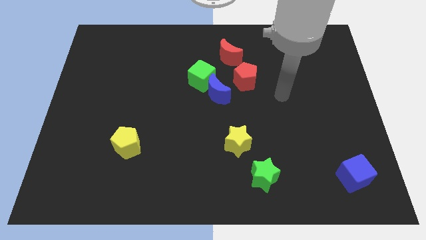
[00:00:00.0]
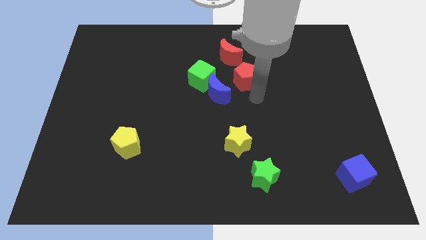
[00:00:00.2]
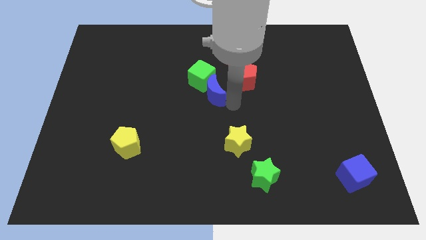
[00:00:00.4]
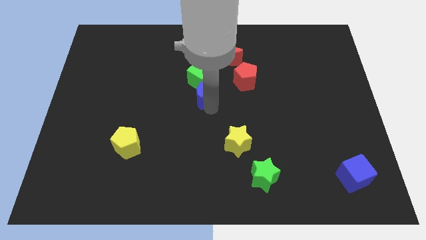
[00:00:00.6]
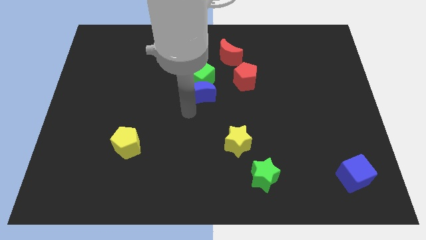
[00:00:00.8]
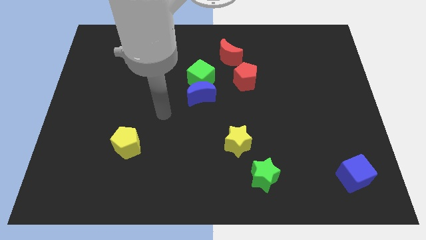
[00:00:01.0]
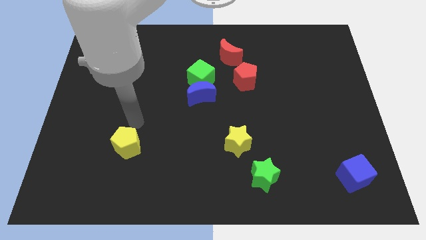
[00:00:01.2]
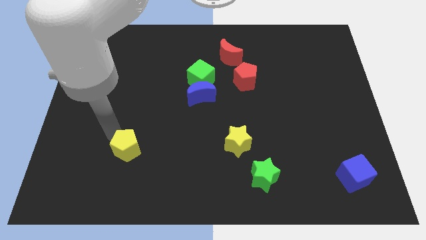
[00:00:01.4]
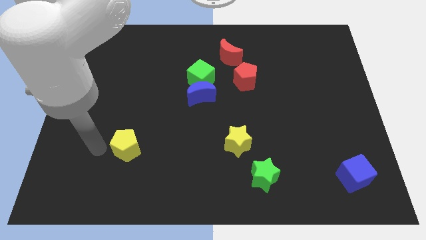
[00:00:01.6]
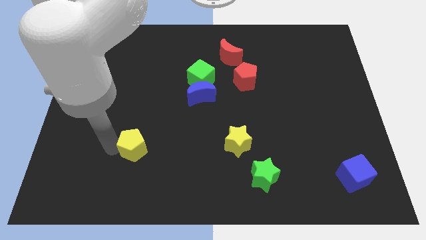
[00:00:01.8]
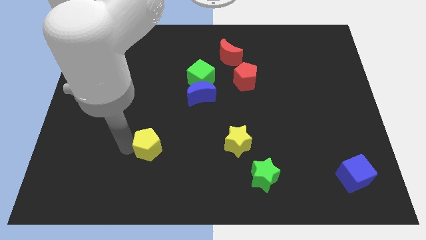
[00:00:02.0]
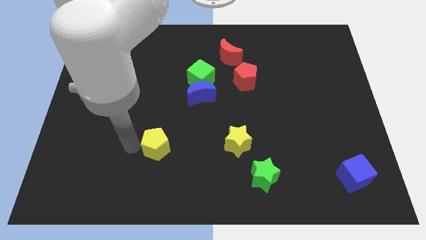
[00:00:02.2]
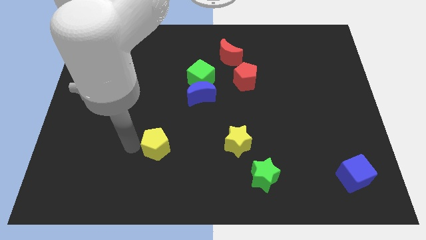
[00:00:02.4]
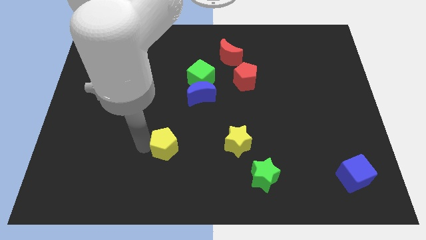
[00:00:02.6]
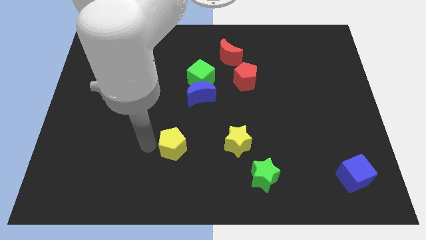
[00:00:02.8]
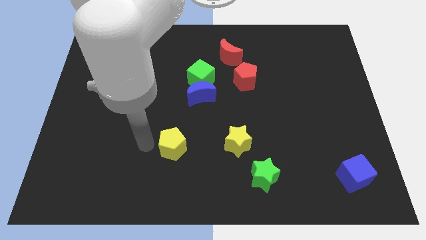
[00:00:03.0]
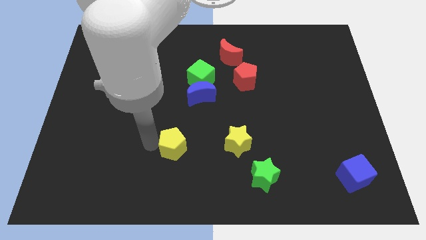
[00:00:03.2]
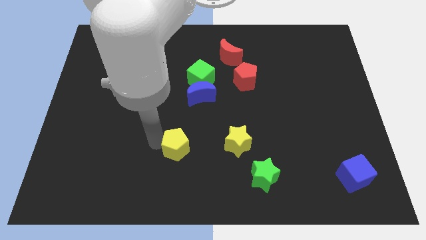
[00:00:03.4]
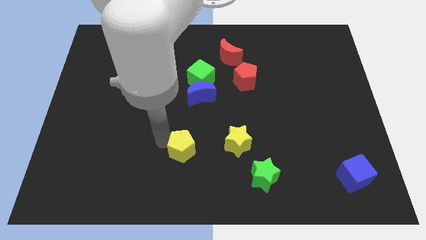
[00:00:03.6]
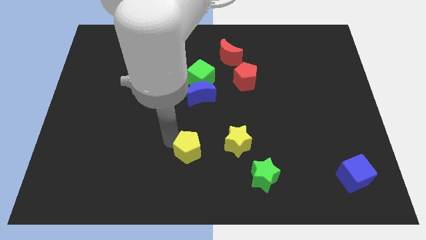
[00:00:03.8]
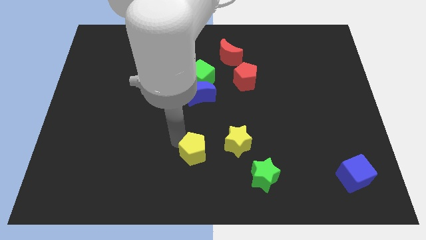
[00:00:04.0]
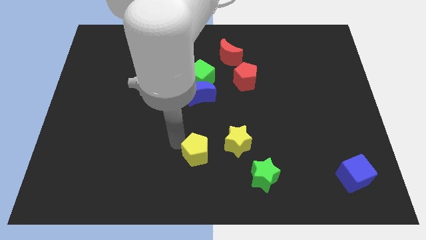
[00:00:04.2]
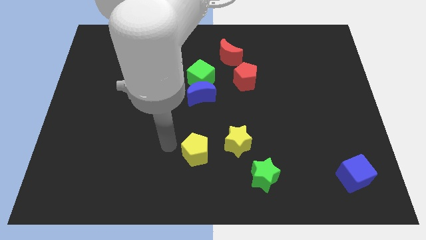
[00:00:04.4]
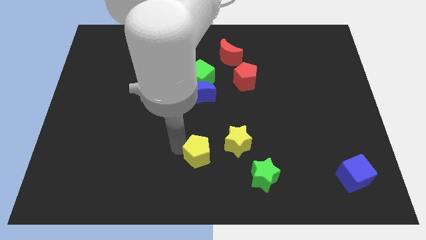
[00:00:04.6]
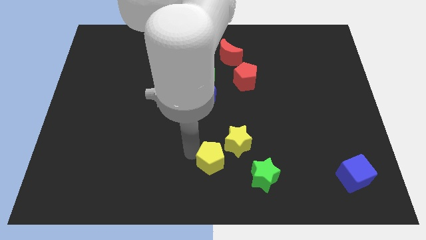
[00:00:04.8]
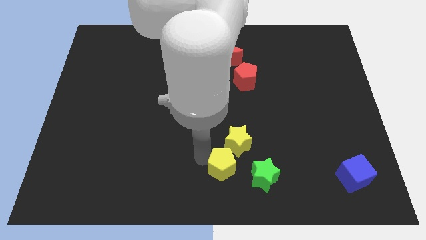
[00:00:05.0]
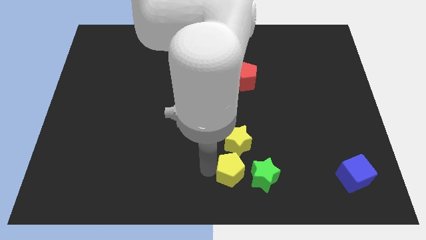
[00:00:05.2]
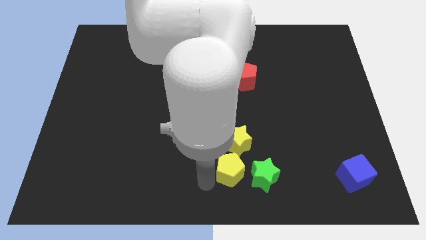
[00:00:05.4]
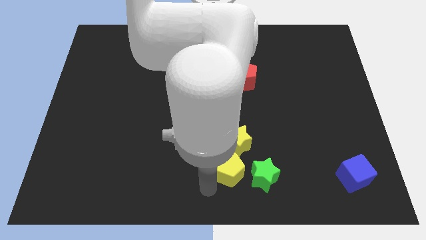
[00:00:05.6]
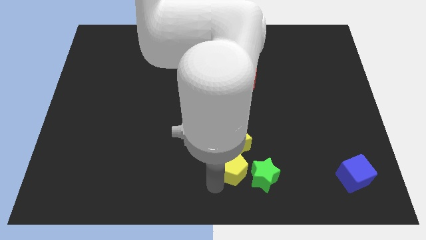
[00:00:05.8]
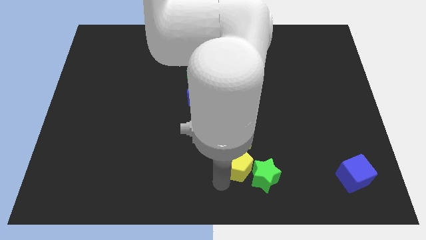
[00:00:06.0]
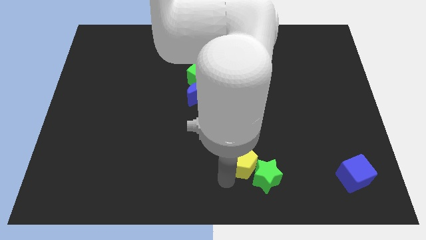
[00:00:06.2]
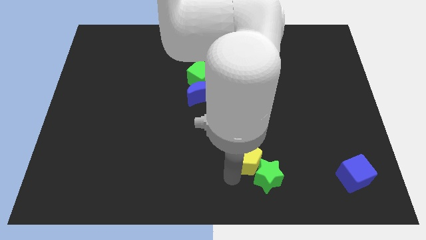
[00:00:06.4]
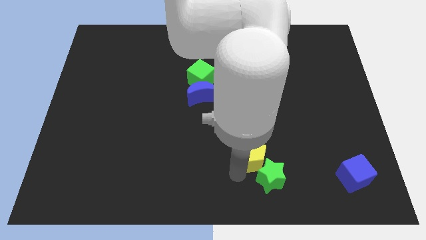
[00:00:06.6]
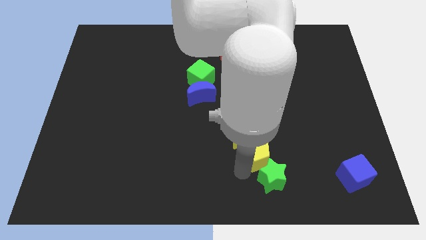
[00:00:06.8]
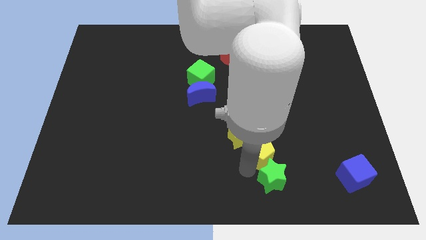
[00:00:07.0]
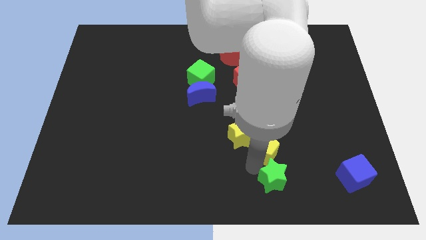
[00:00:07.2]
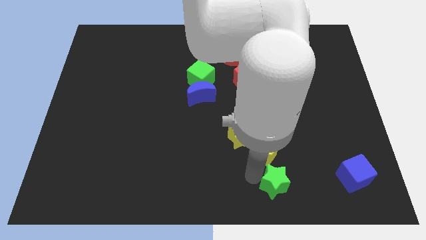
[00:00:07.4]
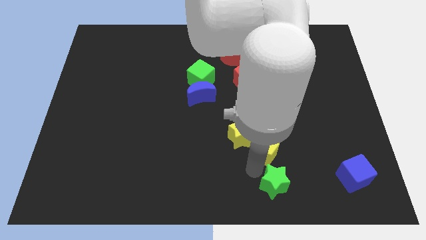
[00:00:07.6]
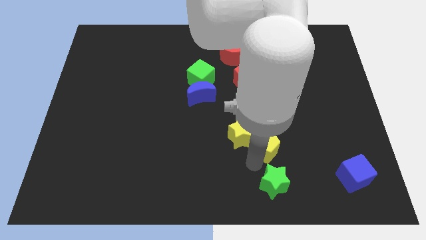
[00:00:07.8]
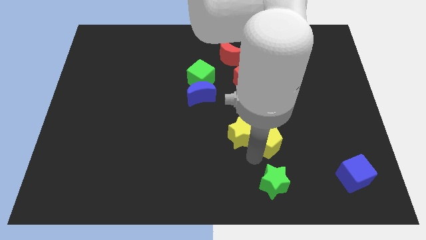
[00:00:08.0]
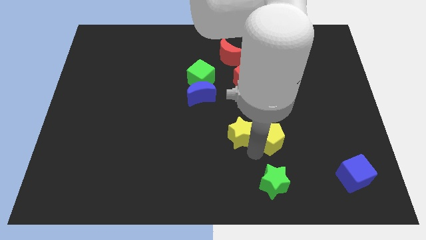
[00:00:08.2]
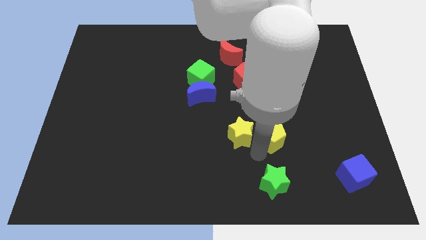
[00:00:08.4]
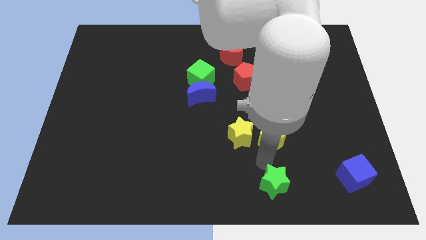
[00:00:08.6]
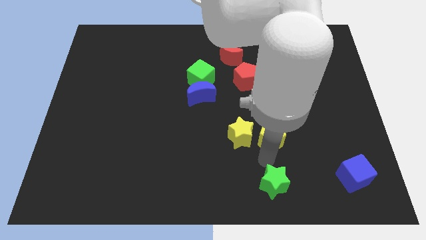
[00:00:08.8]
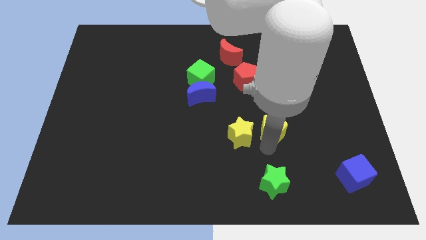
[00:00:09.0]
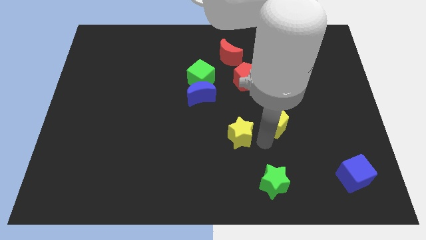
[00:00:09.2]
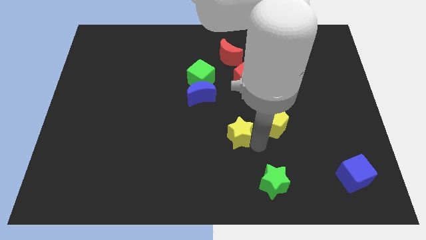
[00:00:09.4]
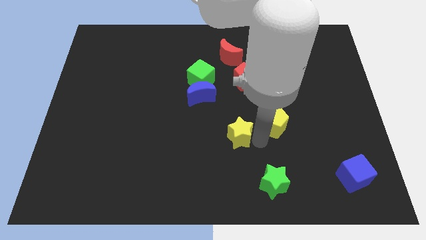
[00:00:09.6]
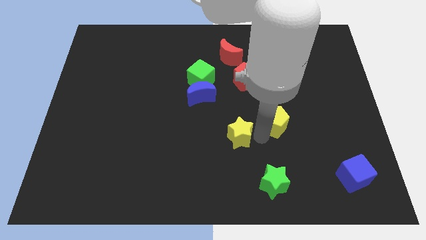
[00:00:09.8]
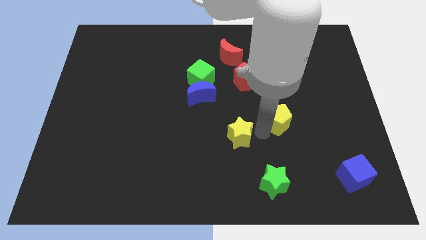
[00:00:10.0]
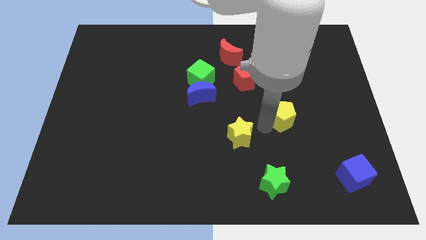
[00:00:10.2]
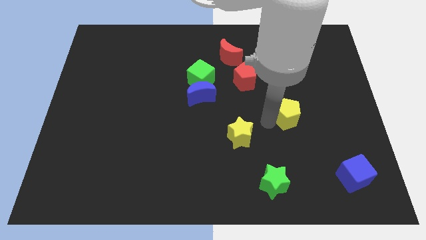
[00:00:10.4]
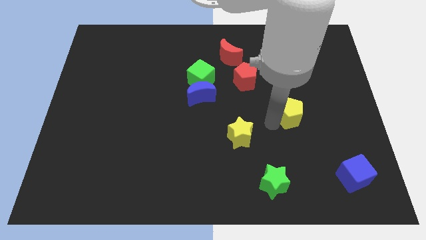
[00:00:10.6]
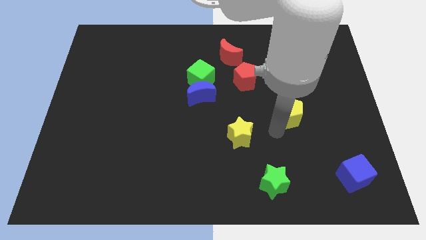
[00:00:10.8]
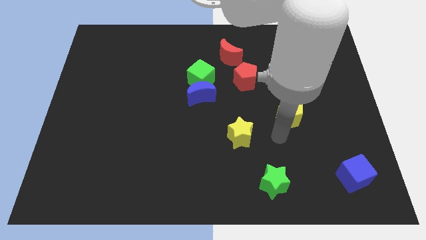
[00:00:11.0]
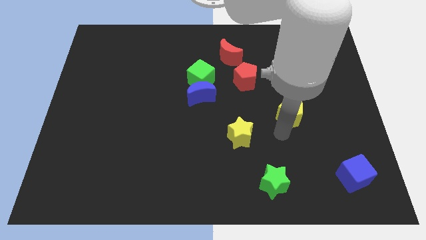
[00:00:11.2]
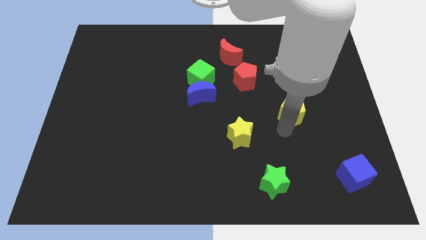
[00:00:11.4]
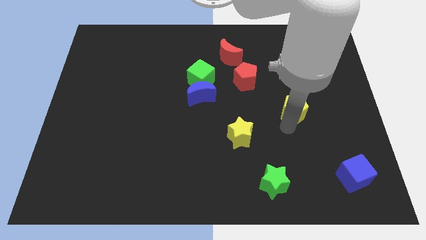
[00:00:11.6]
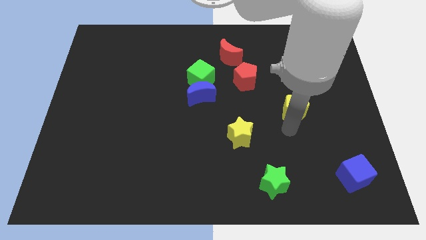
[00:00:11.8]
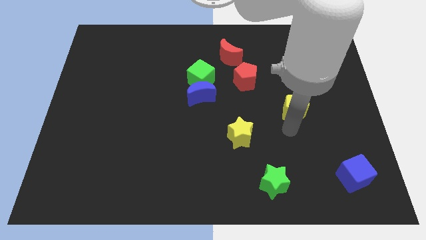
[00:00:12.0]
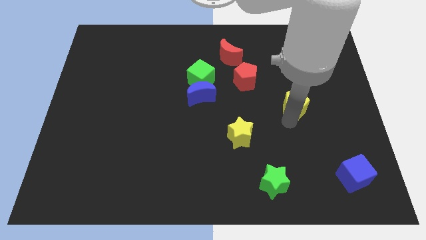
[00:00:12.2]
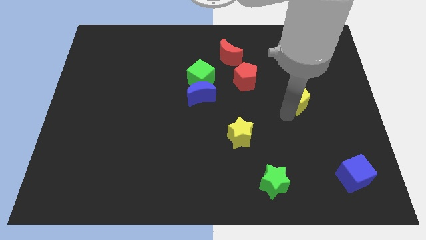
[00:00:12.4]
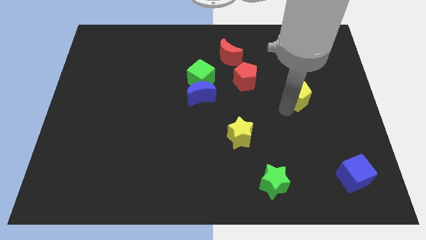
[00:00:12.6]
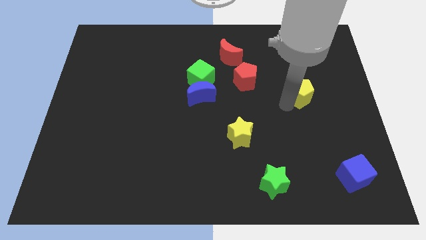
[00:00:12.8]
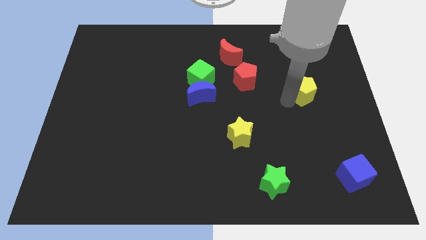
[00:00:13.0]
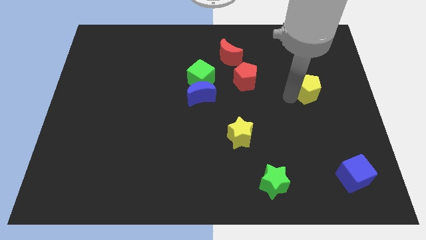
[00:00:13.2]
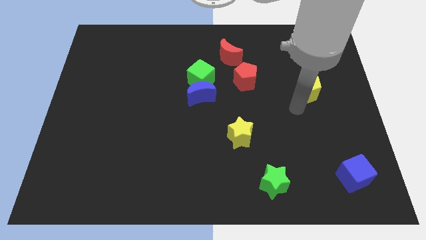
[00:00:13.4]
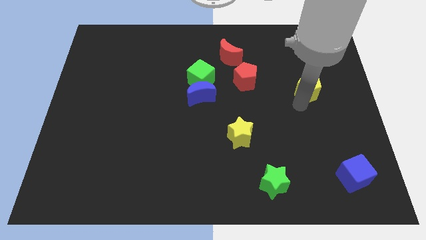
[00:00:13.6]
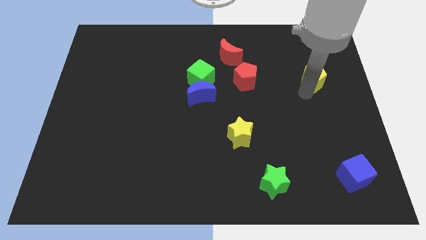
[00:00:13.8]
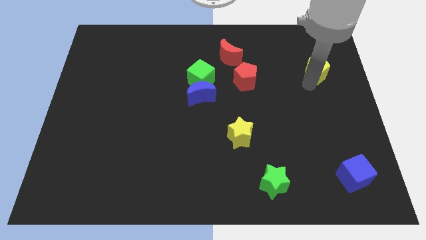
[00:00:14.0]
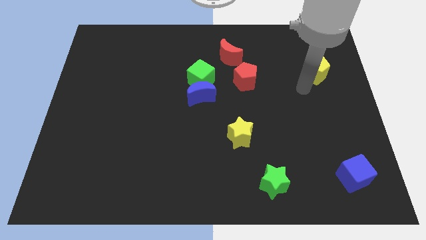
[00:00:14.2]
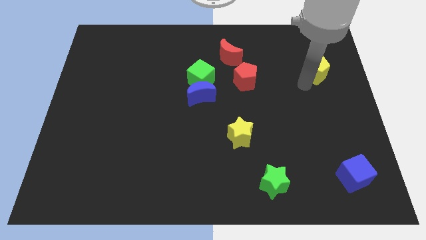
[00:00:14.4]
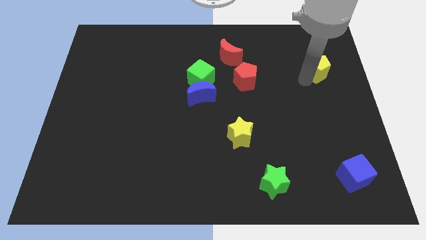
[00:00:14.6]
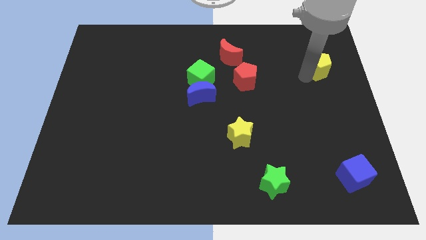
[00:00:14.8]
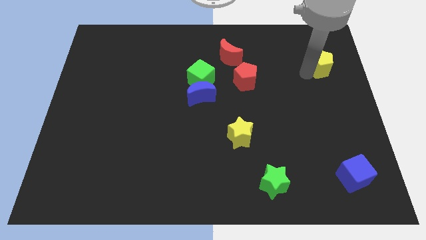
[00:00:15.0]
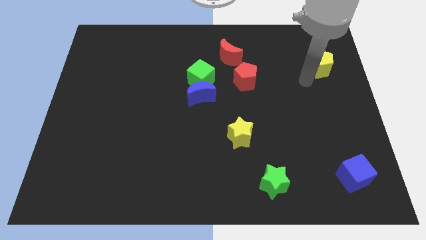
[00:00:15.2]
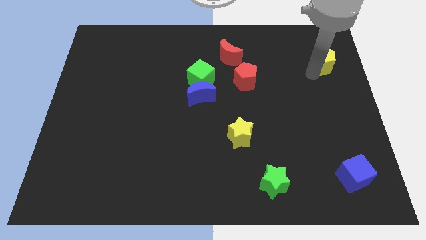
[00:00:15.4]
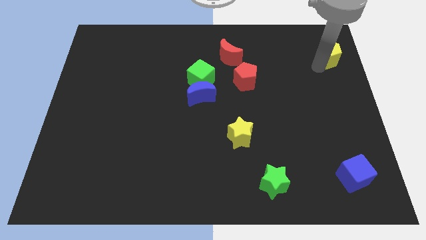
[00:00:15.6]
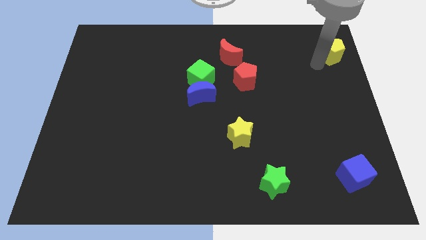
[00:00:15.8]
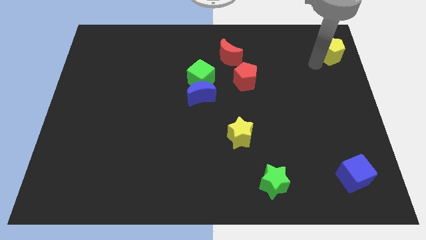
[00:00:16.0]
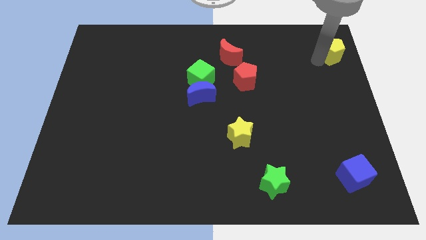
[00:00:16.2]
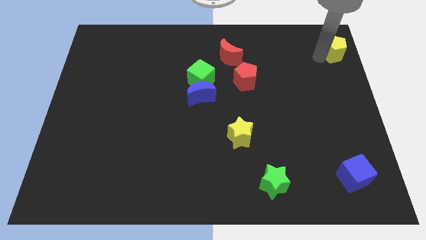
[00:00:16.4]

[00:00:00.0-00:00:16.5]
slide the yellow pentagon to the top right of the board
